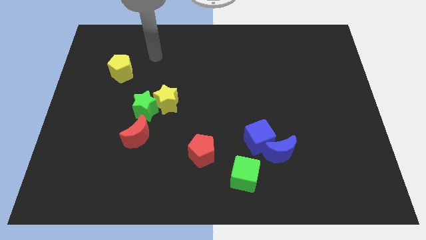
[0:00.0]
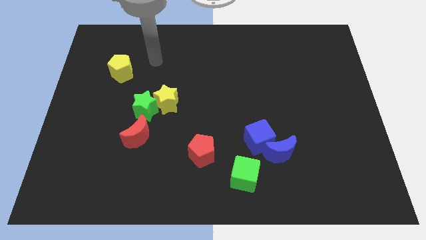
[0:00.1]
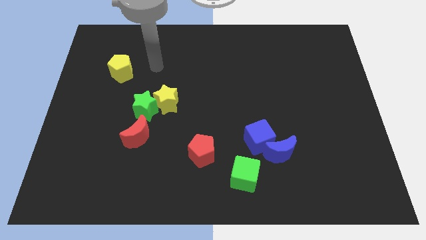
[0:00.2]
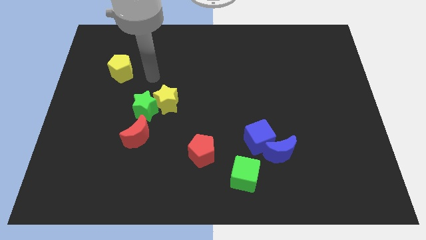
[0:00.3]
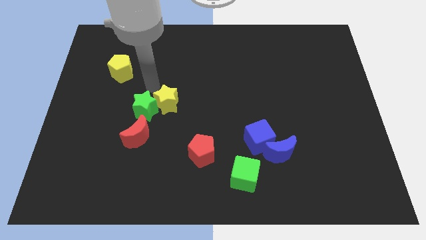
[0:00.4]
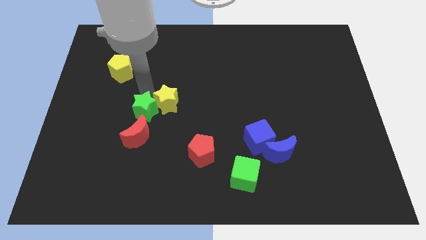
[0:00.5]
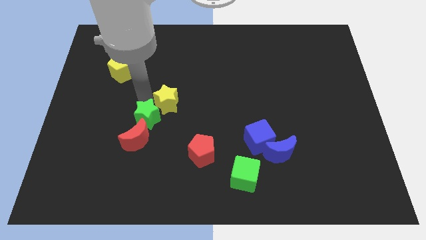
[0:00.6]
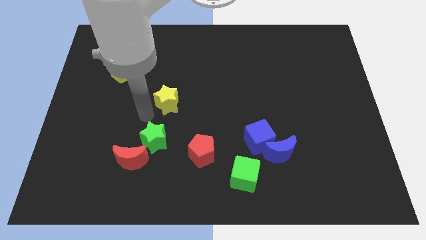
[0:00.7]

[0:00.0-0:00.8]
pull the yellow star apart from the green star

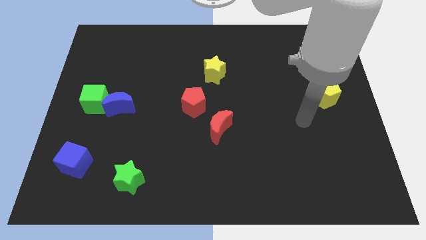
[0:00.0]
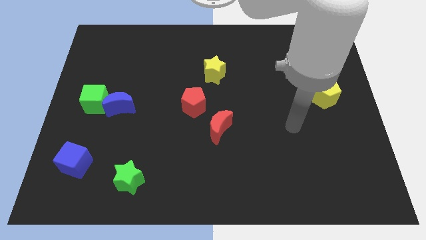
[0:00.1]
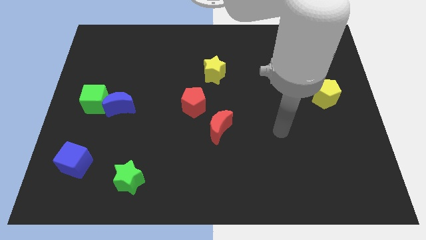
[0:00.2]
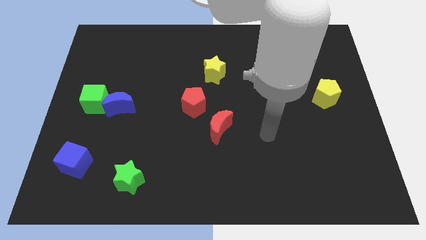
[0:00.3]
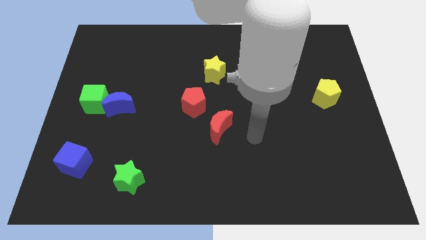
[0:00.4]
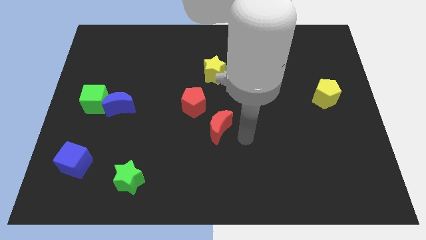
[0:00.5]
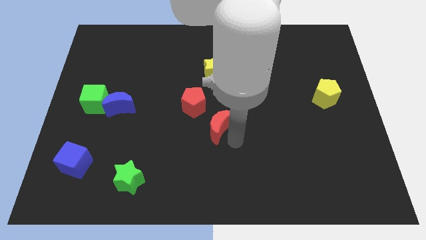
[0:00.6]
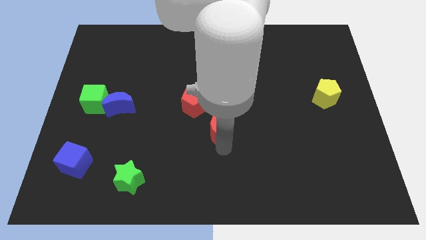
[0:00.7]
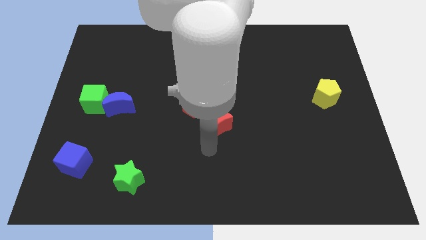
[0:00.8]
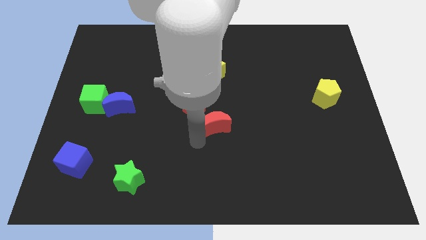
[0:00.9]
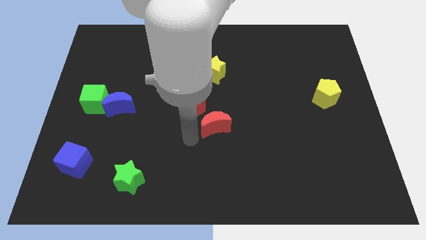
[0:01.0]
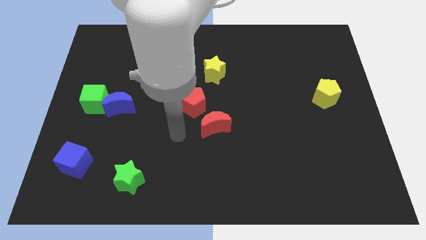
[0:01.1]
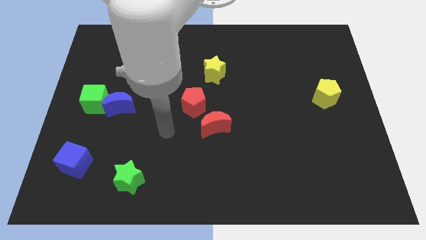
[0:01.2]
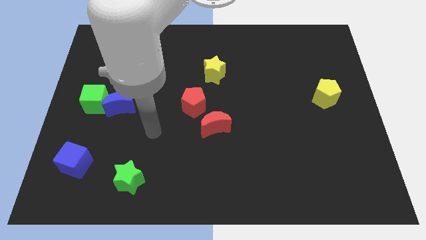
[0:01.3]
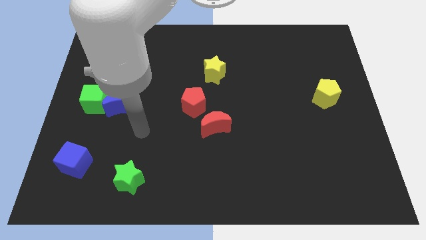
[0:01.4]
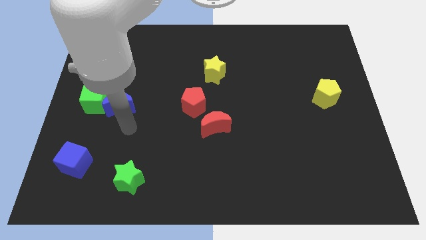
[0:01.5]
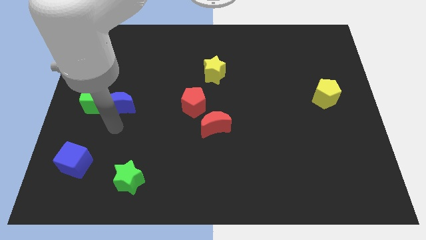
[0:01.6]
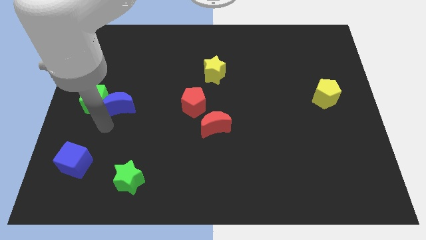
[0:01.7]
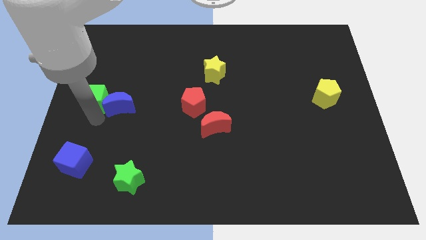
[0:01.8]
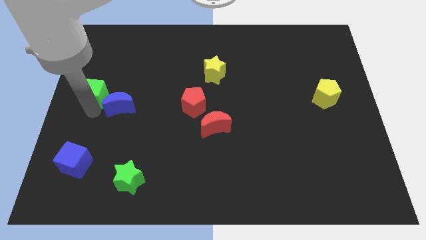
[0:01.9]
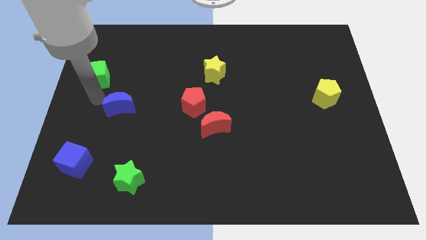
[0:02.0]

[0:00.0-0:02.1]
move the blue moon away from the green cube

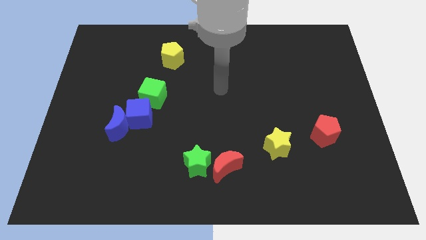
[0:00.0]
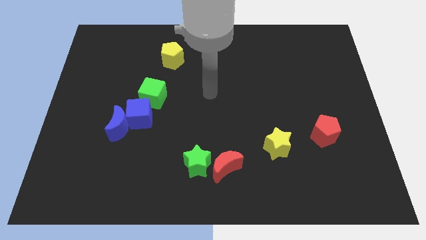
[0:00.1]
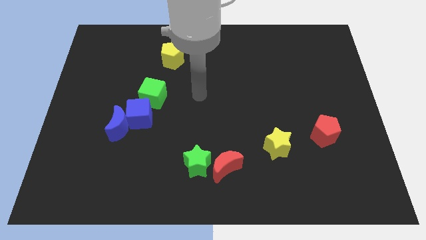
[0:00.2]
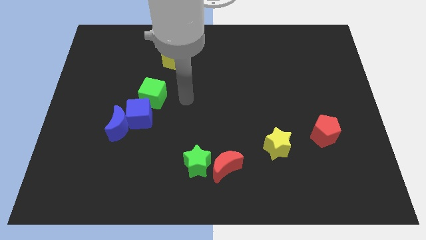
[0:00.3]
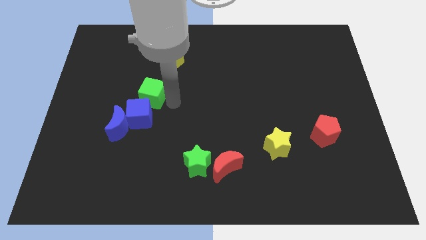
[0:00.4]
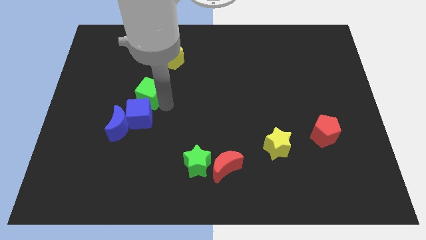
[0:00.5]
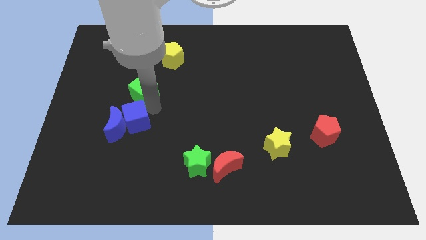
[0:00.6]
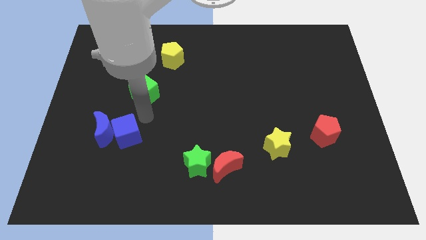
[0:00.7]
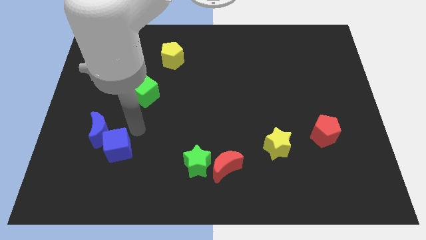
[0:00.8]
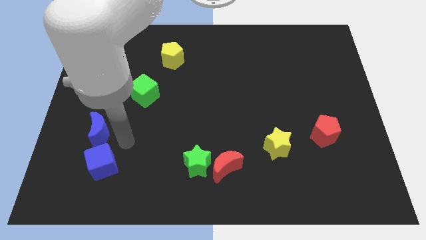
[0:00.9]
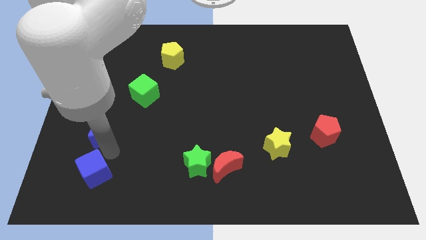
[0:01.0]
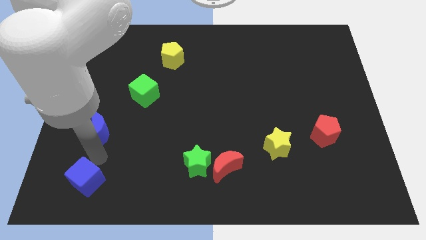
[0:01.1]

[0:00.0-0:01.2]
separate the blue moon from the blue cube

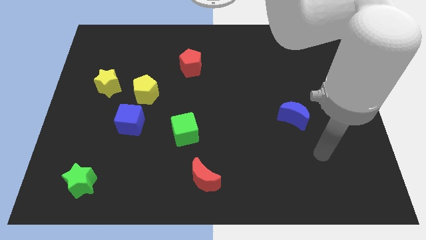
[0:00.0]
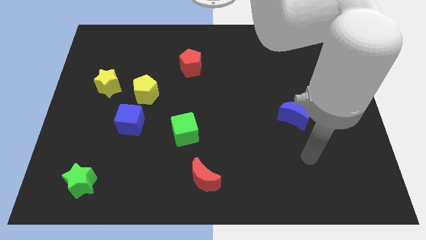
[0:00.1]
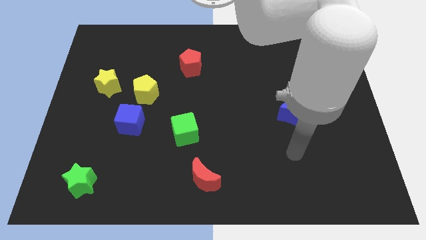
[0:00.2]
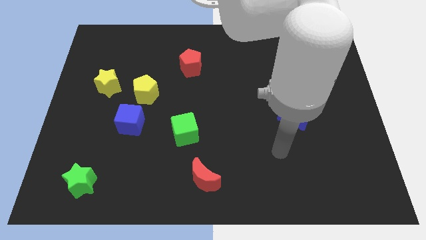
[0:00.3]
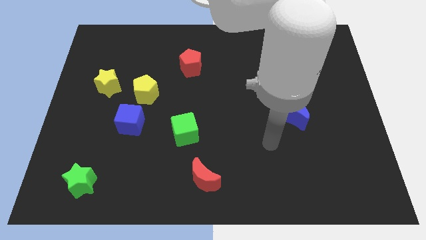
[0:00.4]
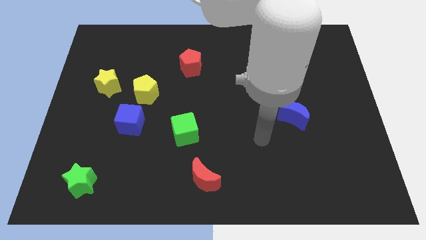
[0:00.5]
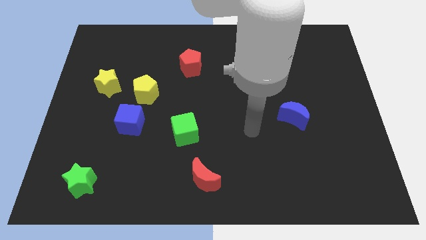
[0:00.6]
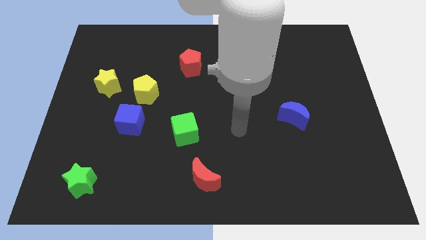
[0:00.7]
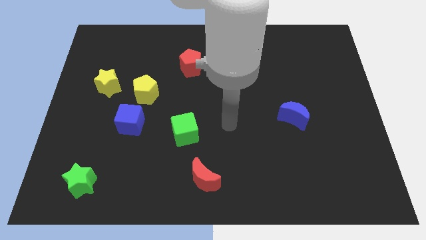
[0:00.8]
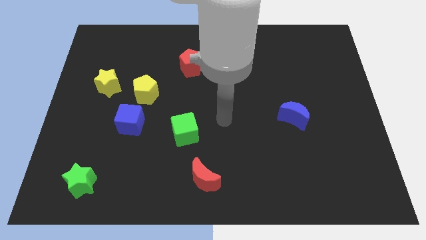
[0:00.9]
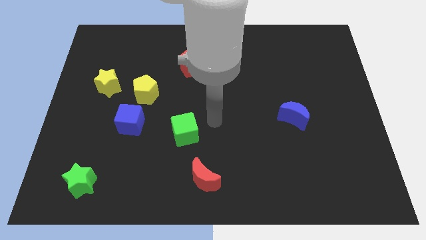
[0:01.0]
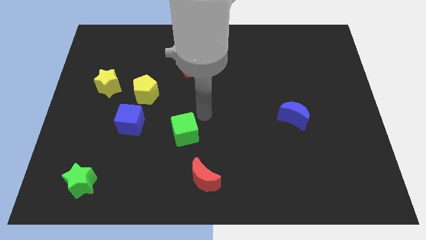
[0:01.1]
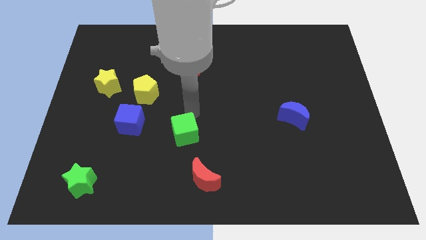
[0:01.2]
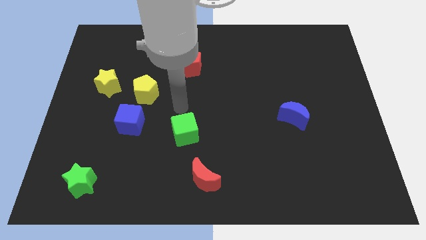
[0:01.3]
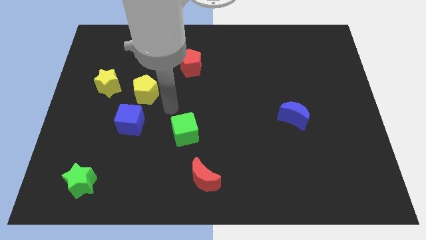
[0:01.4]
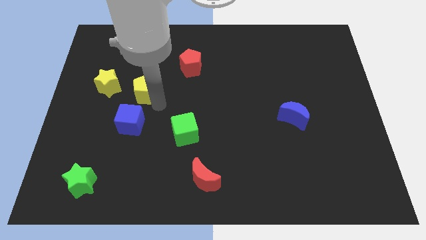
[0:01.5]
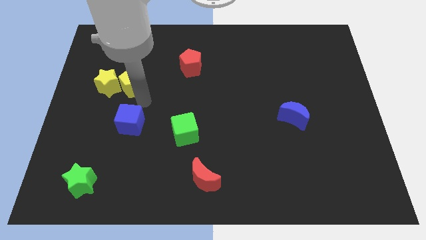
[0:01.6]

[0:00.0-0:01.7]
pull the blue cube apart from the yellow pentagon

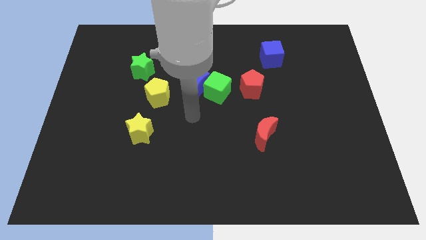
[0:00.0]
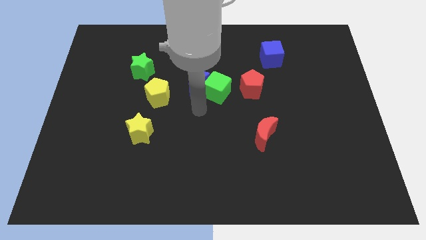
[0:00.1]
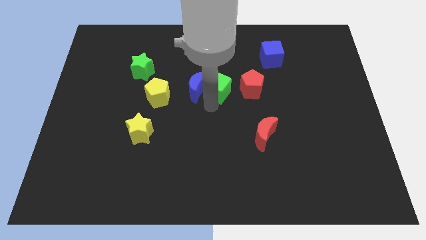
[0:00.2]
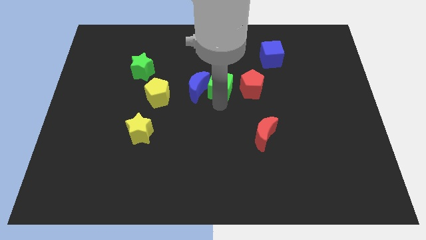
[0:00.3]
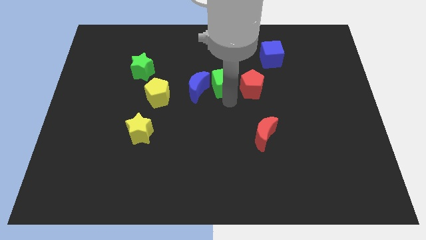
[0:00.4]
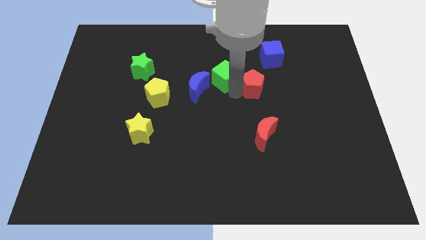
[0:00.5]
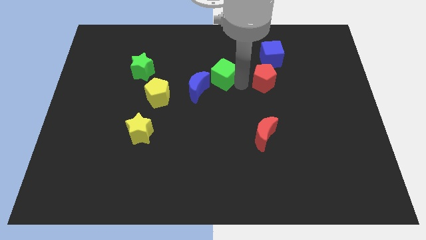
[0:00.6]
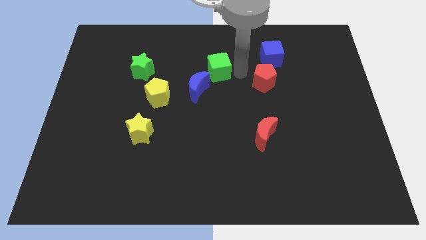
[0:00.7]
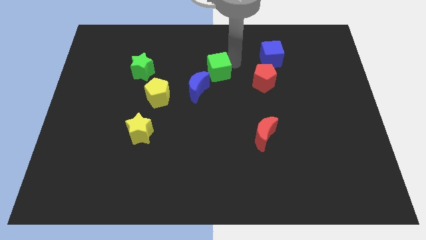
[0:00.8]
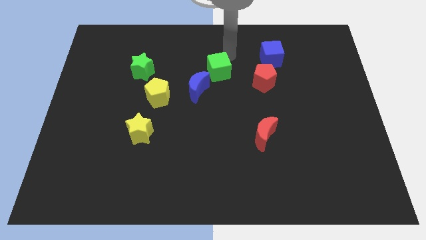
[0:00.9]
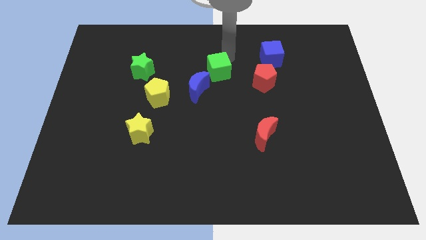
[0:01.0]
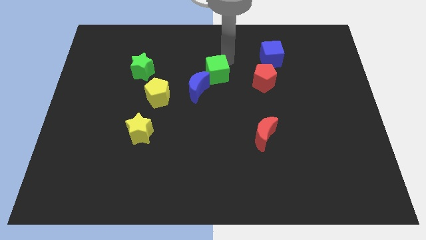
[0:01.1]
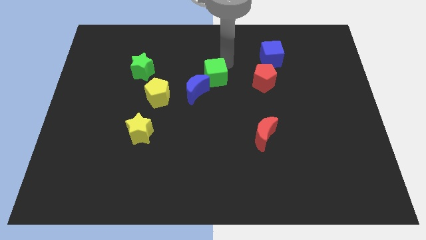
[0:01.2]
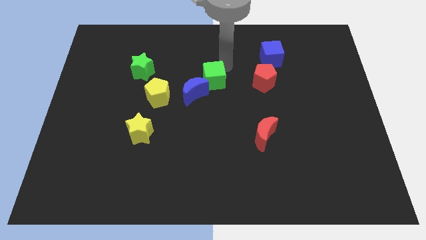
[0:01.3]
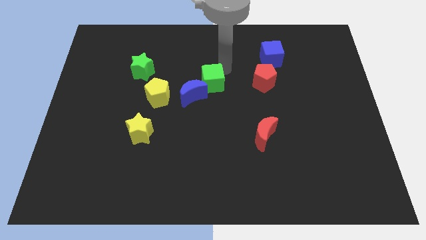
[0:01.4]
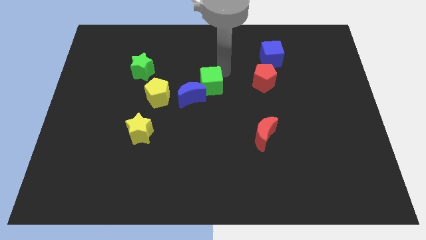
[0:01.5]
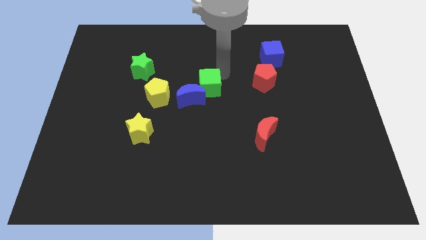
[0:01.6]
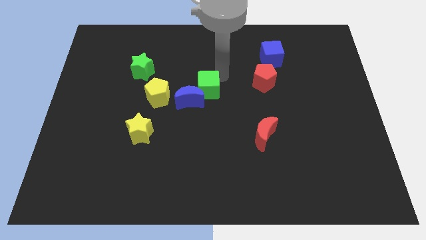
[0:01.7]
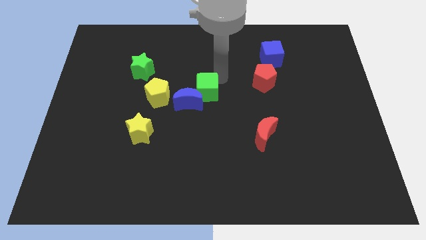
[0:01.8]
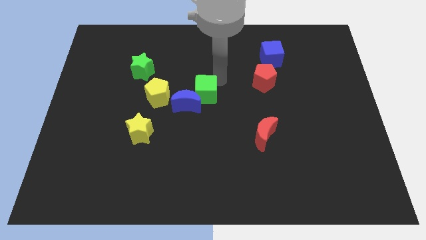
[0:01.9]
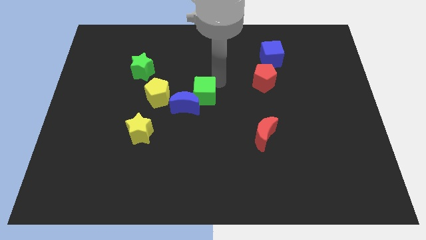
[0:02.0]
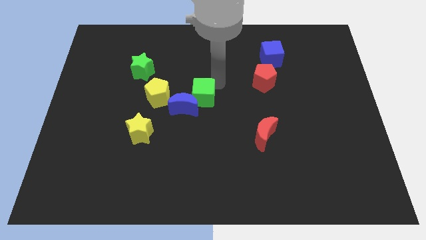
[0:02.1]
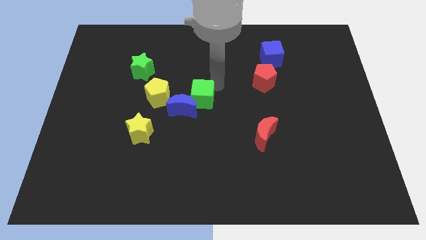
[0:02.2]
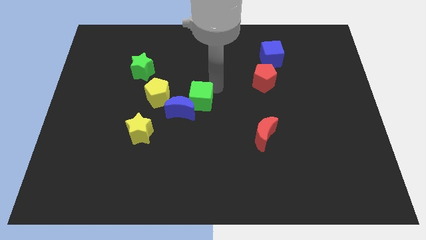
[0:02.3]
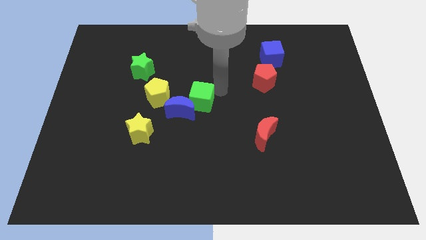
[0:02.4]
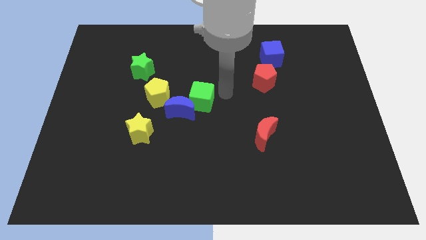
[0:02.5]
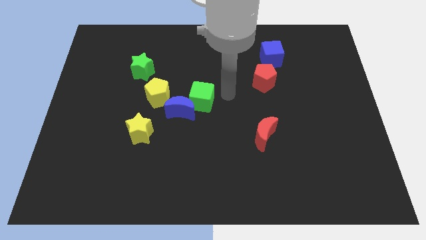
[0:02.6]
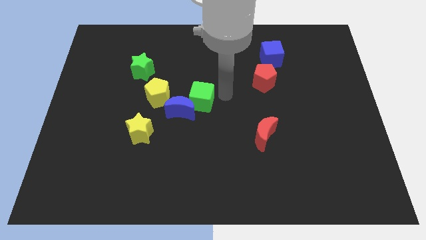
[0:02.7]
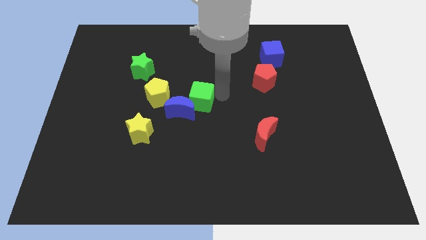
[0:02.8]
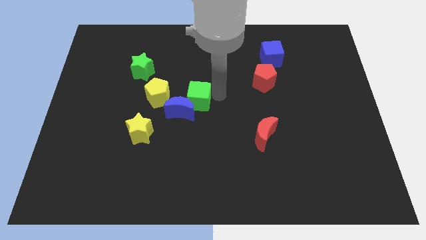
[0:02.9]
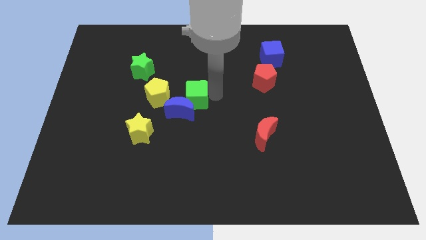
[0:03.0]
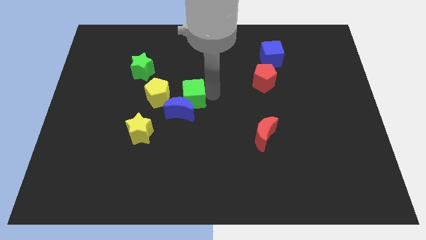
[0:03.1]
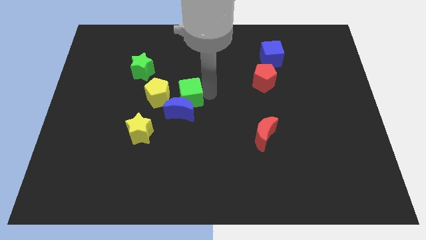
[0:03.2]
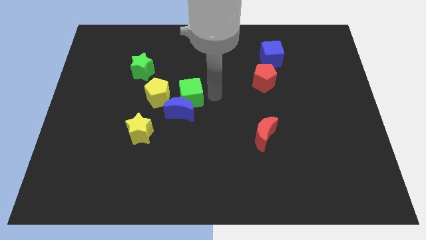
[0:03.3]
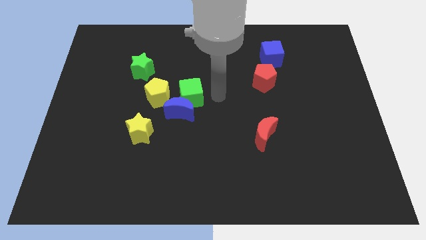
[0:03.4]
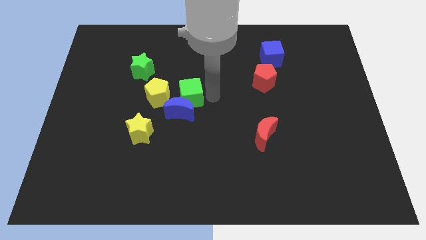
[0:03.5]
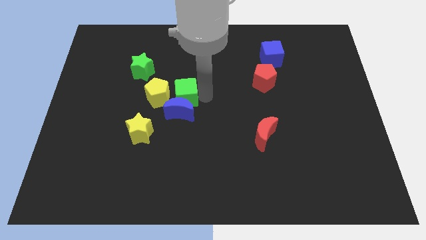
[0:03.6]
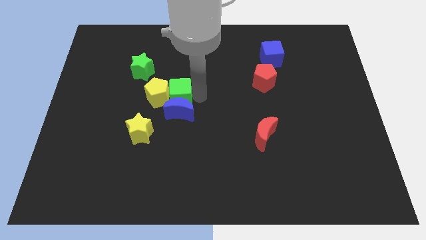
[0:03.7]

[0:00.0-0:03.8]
separate the green cube from the blue moon and red pentagon
